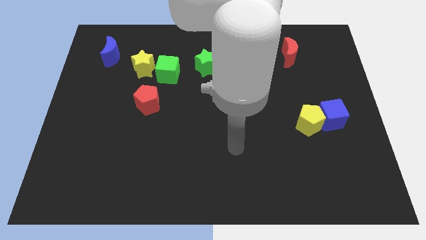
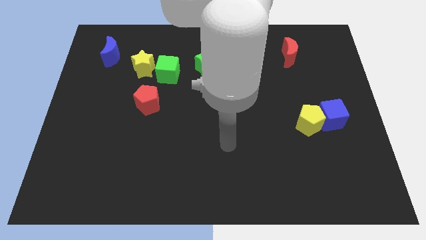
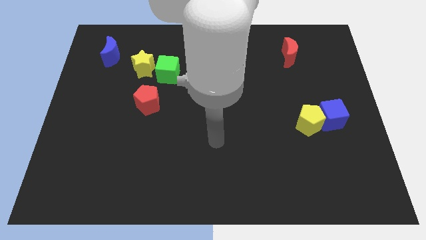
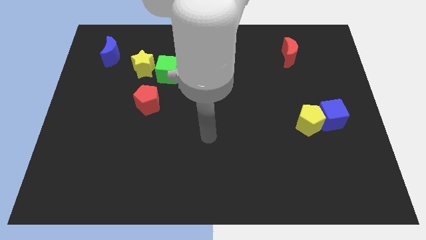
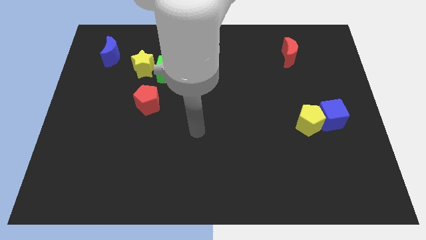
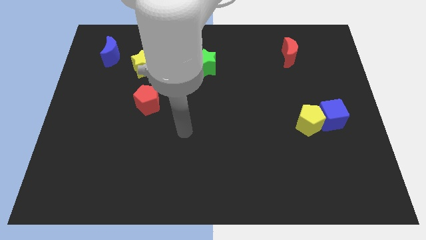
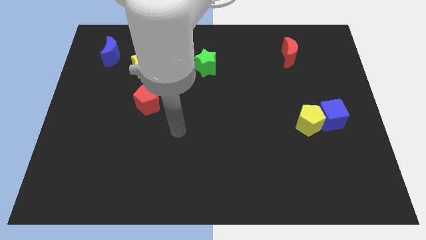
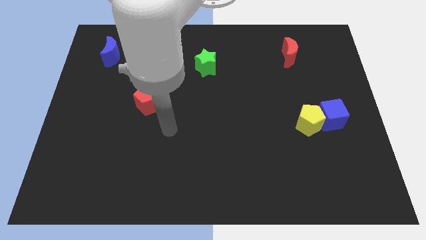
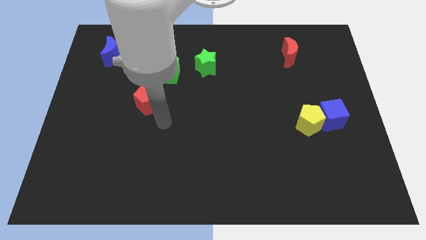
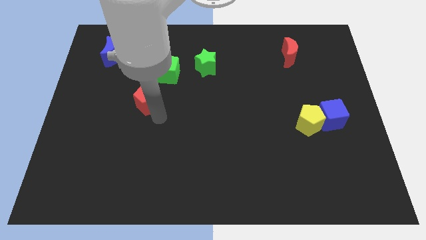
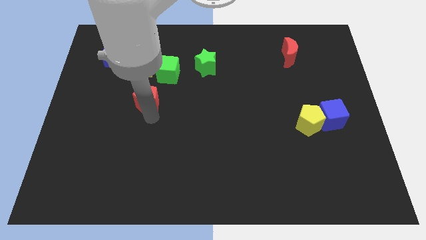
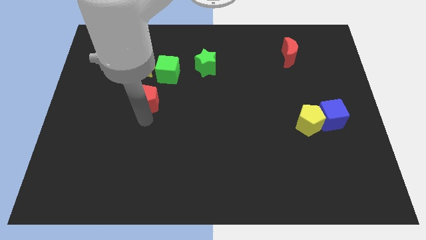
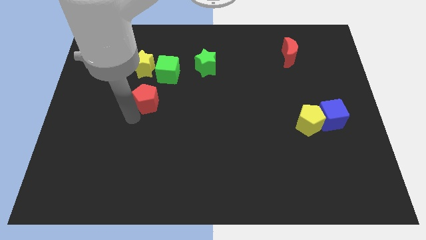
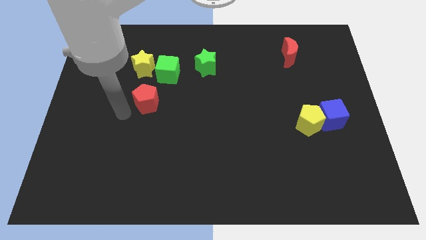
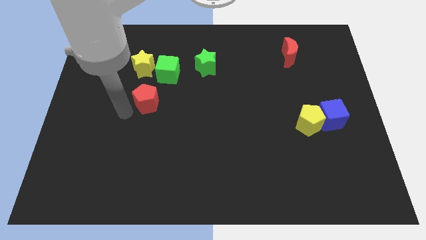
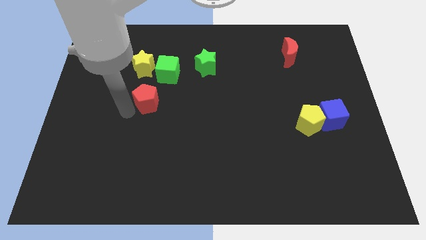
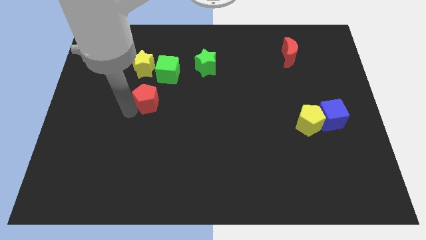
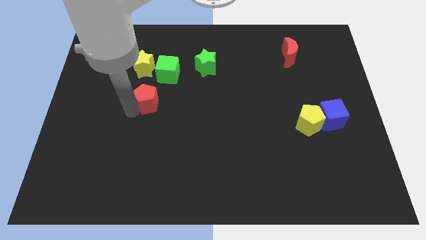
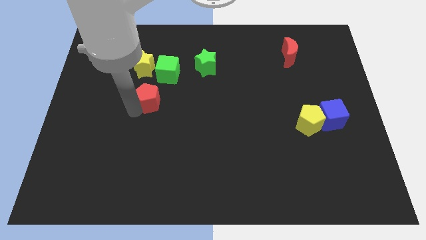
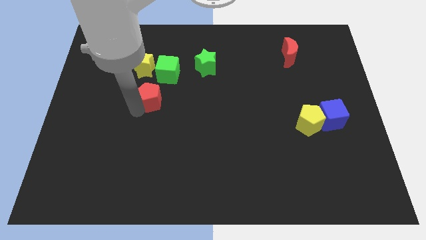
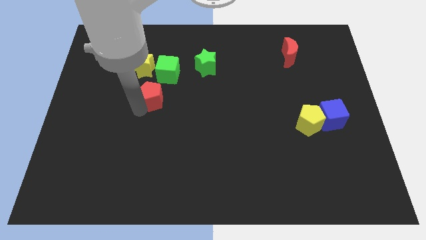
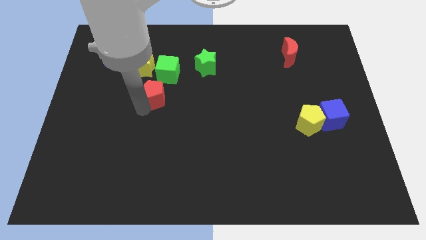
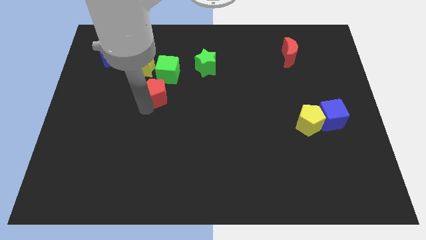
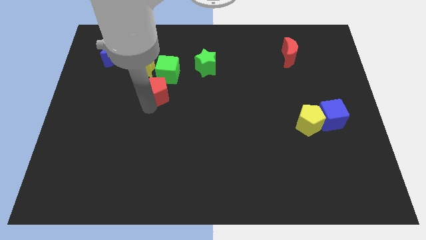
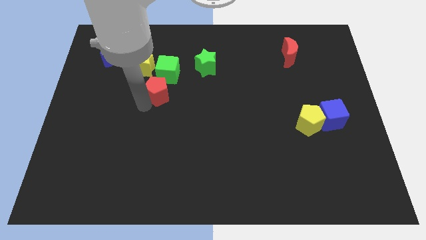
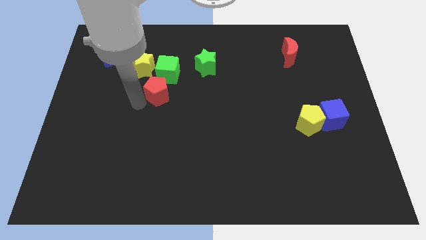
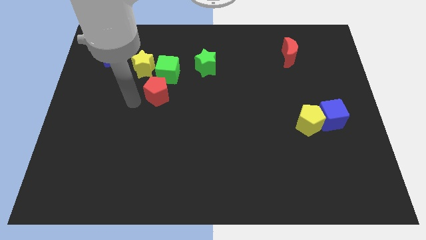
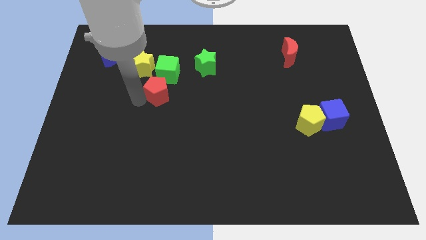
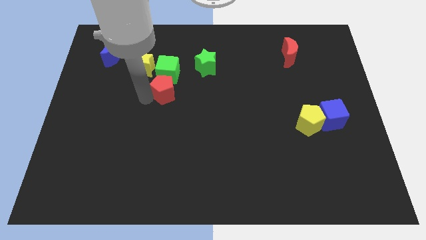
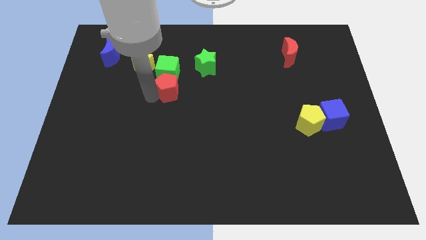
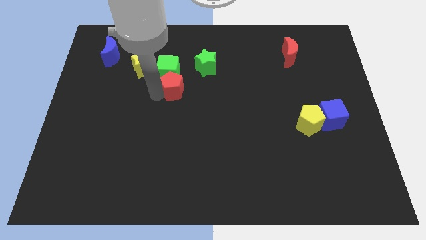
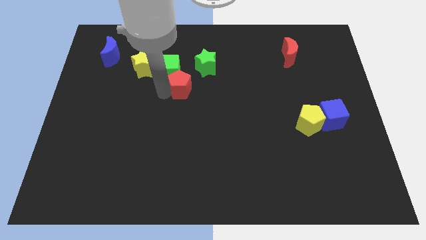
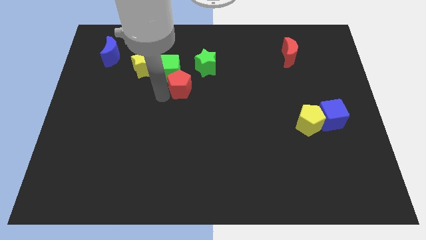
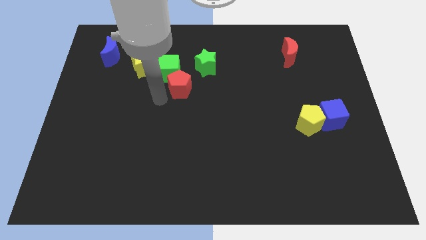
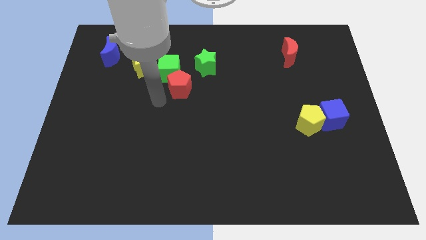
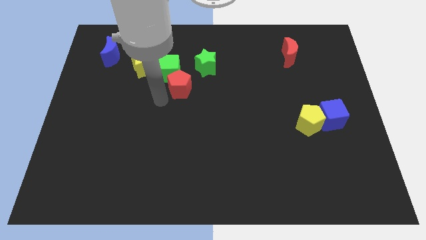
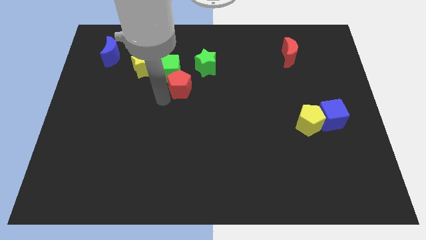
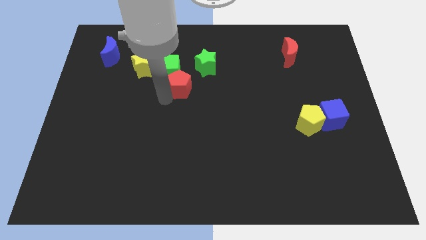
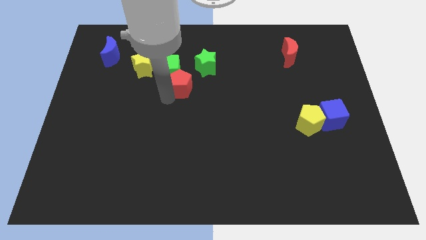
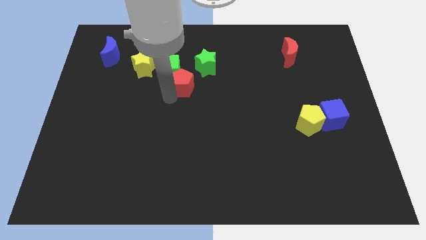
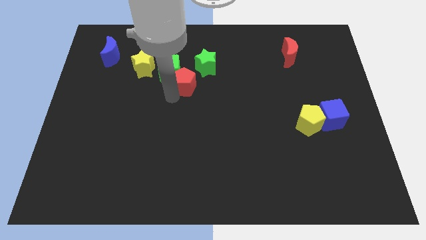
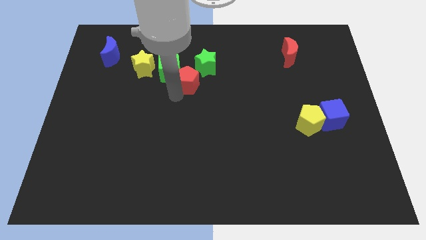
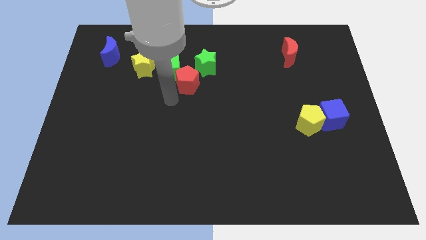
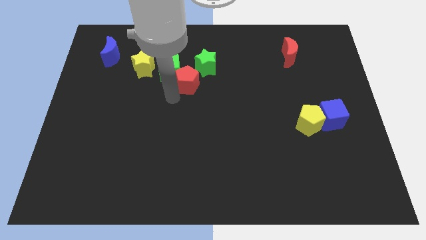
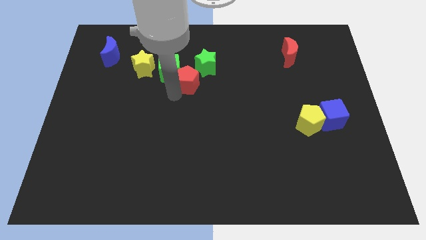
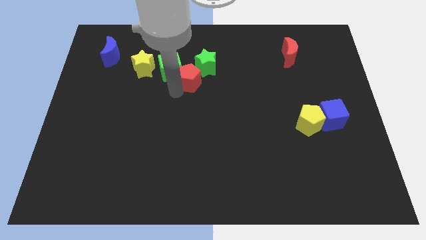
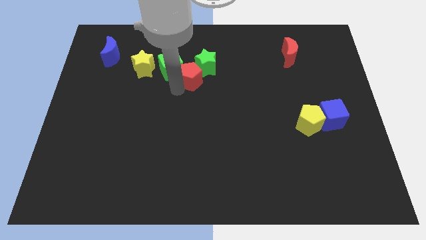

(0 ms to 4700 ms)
push the red pentagon towards the green star

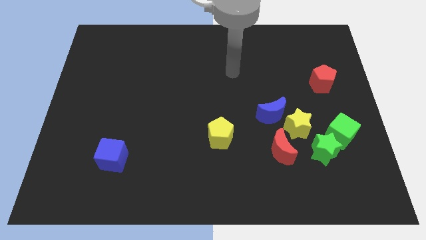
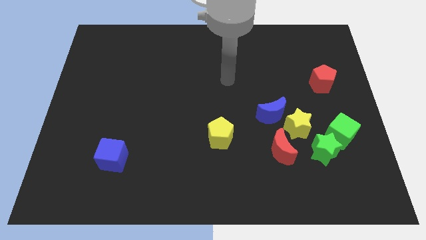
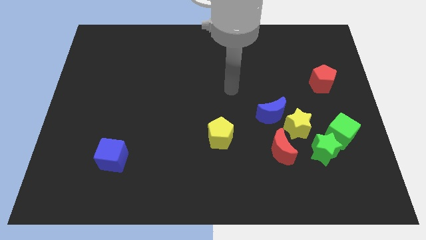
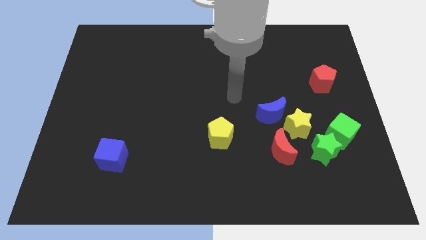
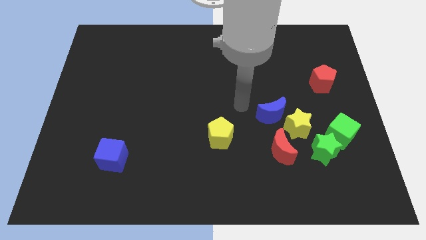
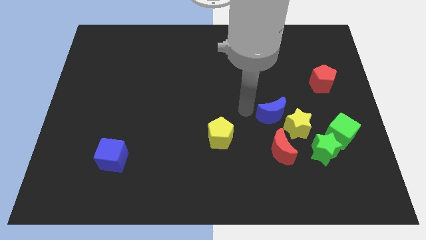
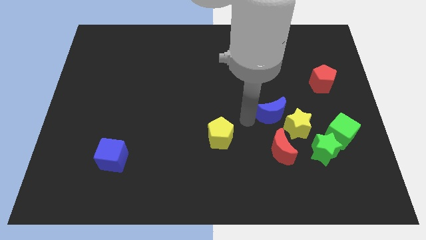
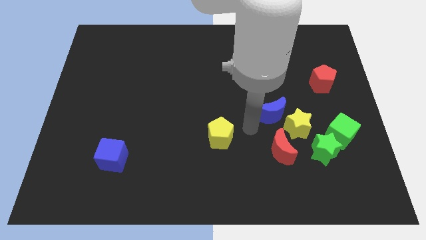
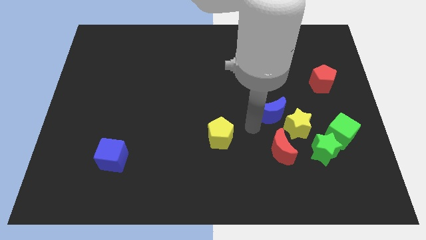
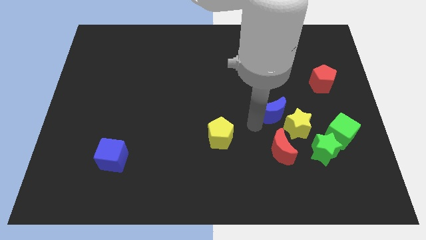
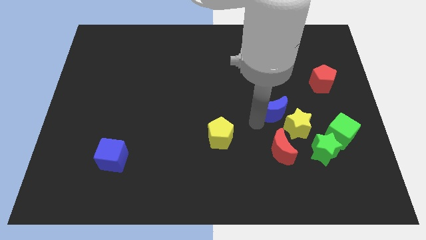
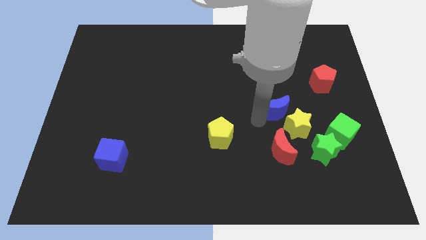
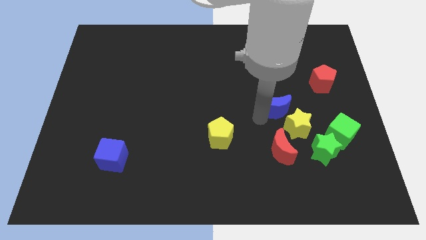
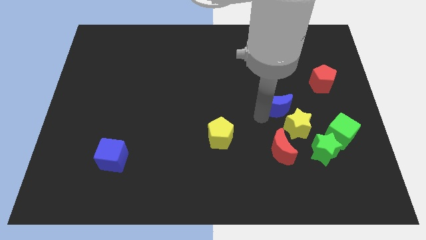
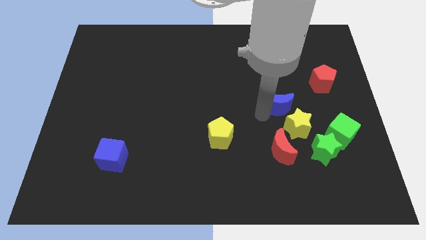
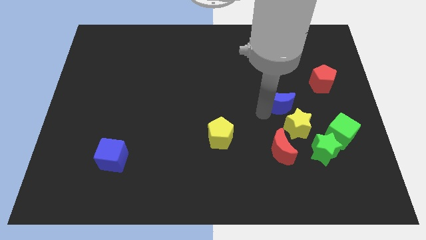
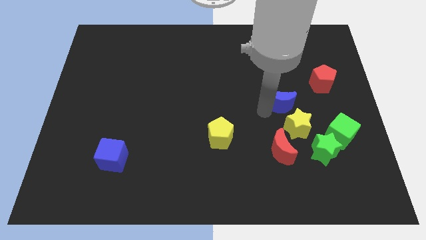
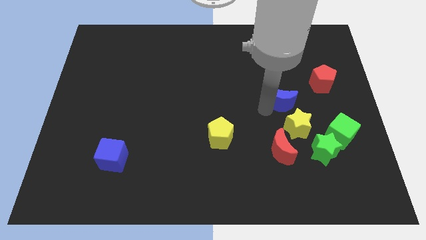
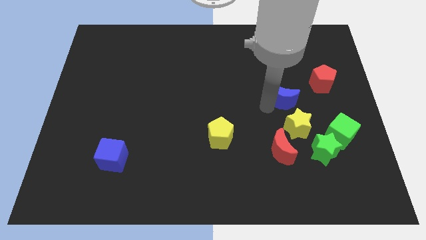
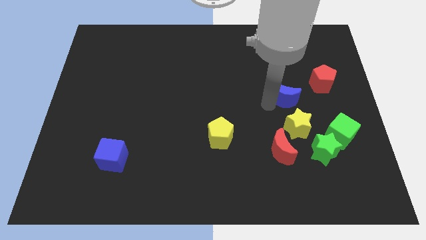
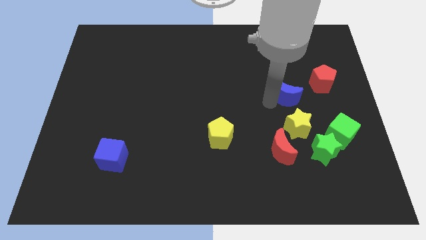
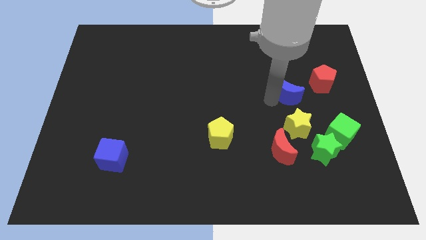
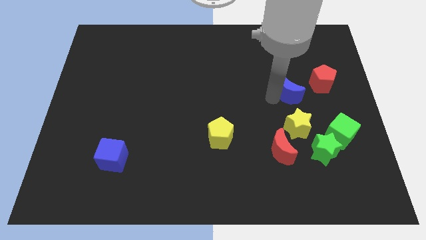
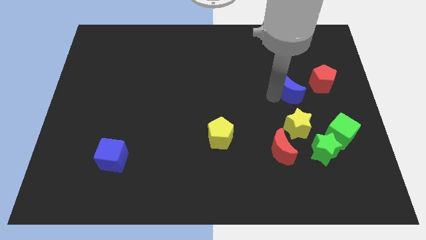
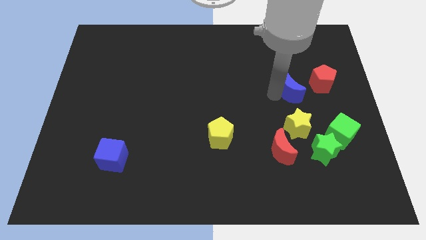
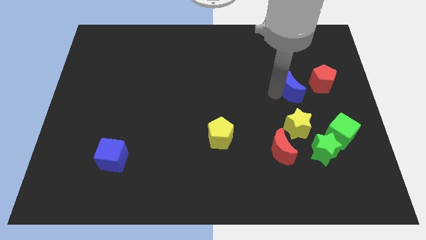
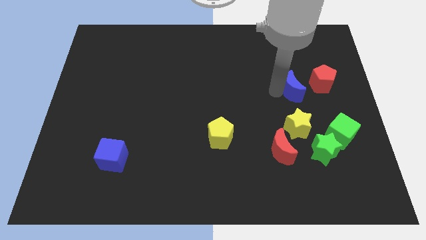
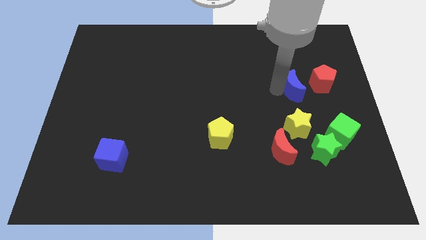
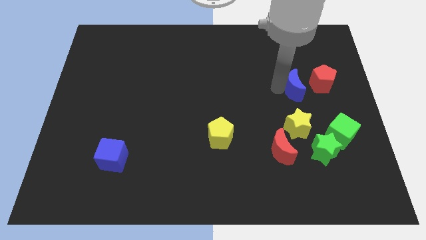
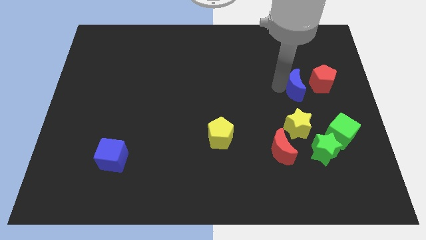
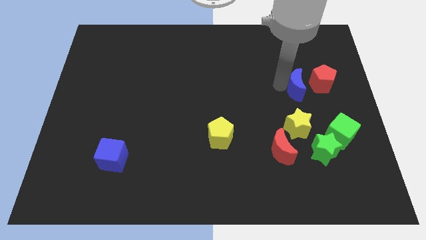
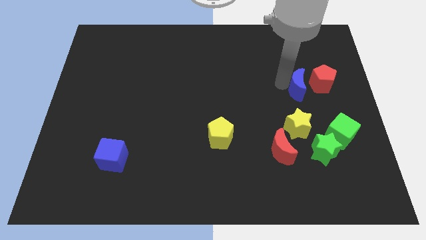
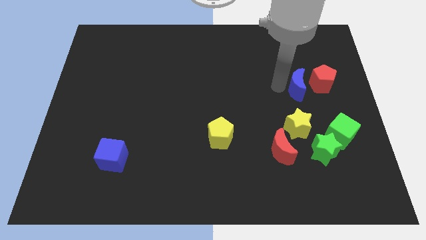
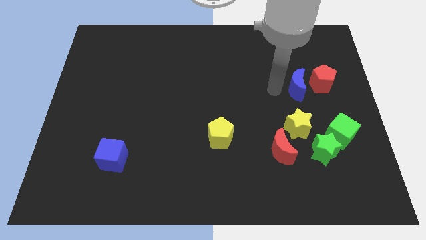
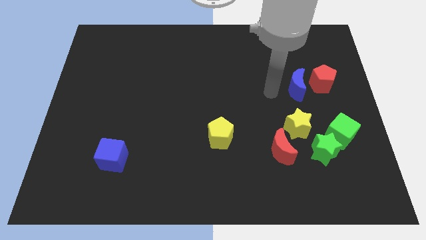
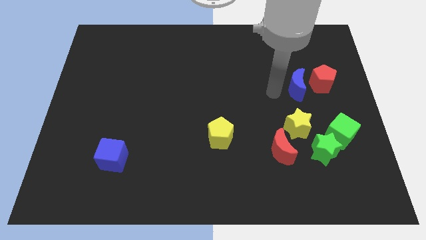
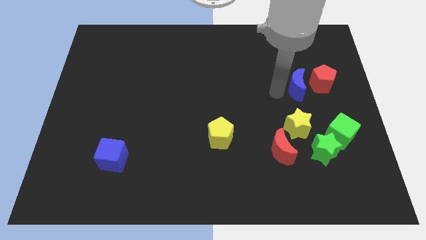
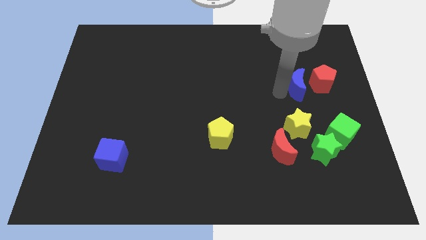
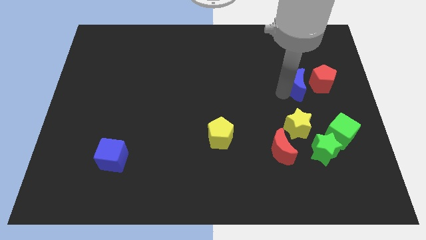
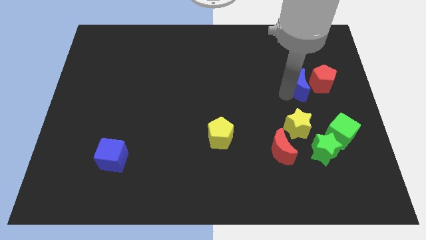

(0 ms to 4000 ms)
put the blue moon to the red pentagon
